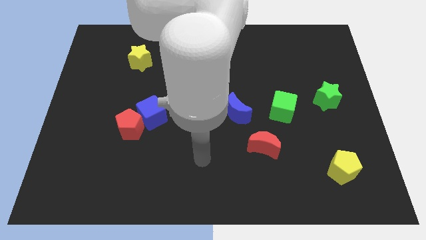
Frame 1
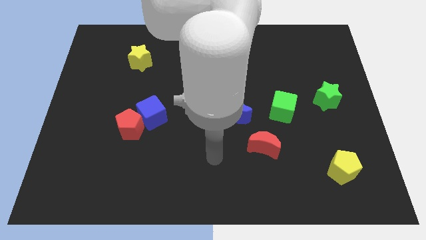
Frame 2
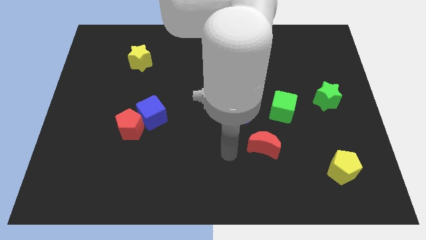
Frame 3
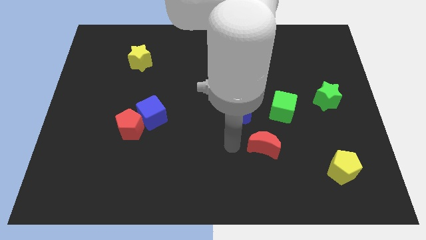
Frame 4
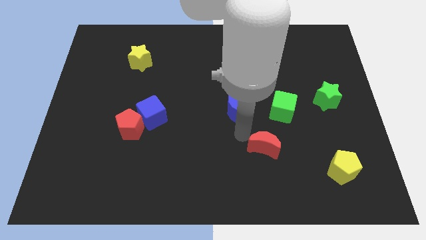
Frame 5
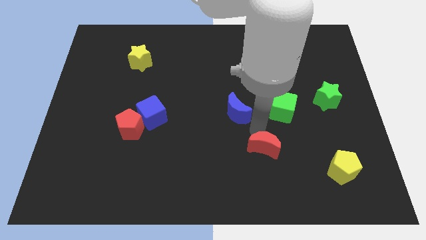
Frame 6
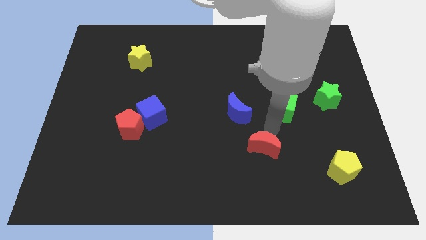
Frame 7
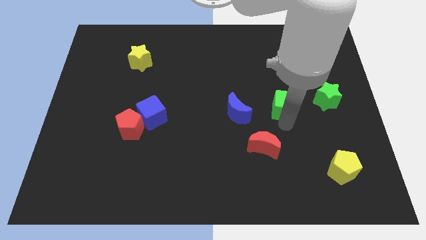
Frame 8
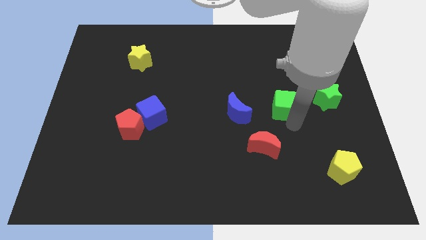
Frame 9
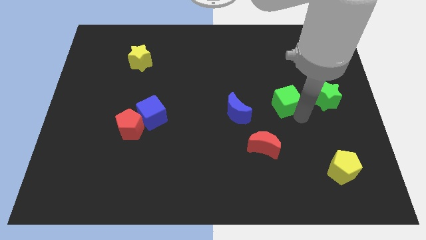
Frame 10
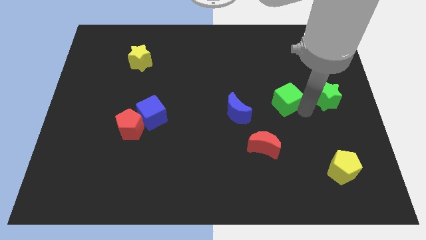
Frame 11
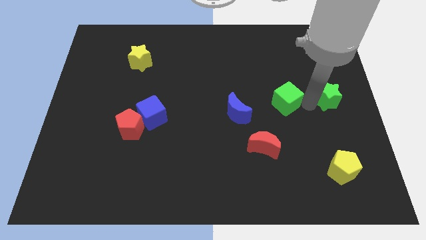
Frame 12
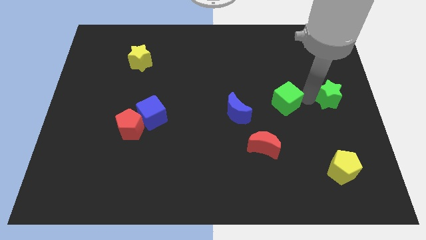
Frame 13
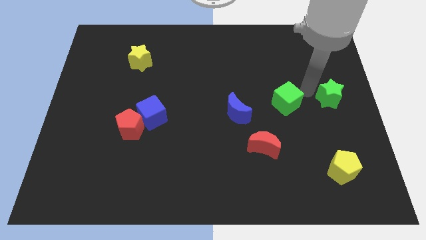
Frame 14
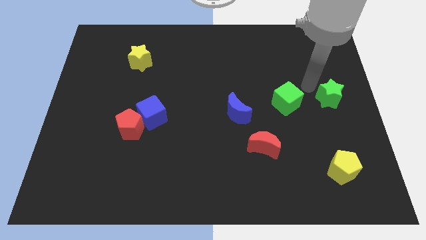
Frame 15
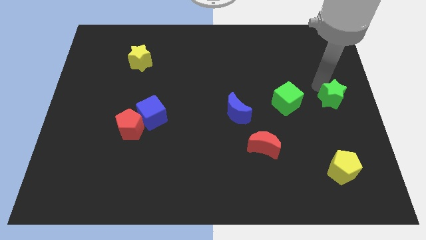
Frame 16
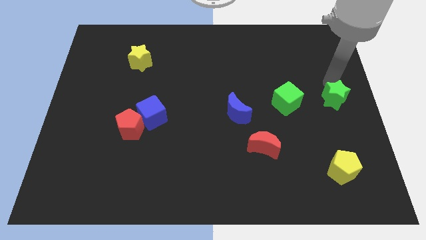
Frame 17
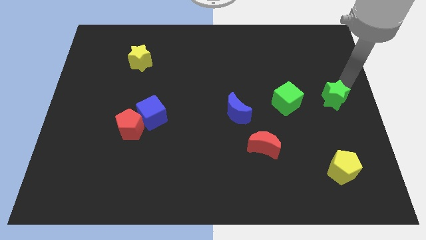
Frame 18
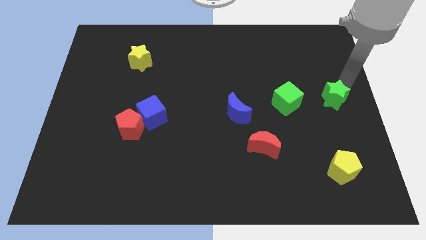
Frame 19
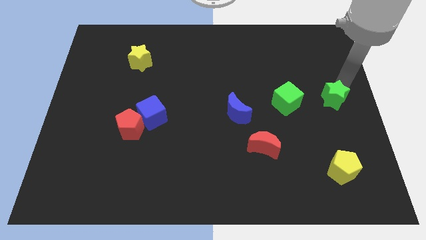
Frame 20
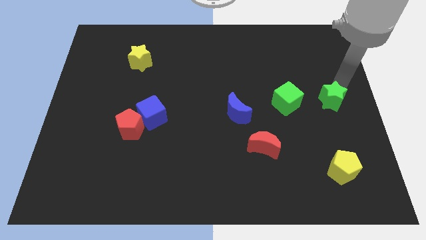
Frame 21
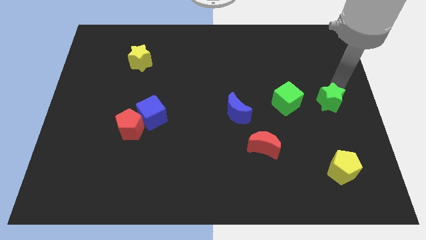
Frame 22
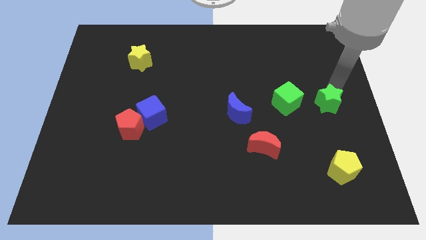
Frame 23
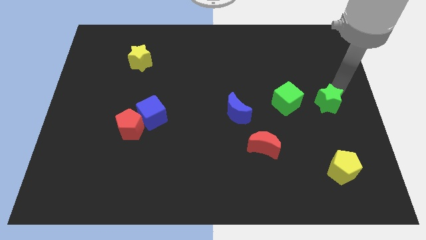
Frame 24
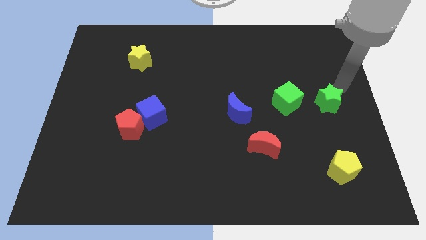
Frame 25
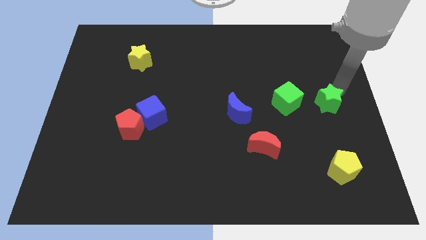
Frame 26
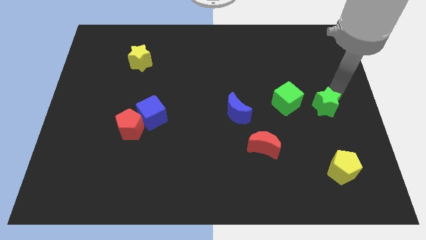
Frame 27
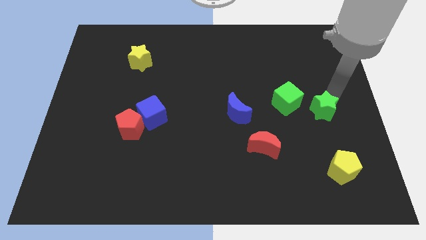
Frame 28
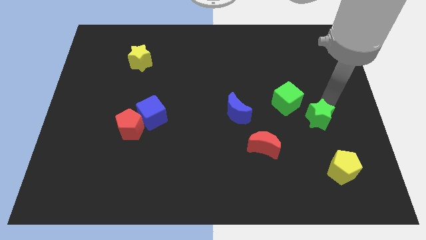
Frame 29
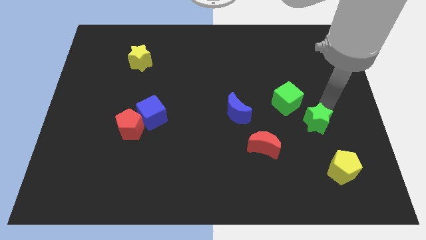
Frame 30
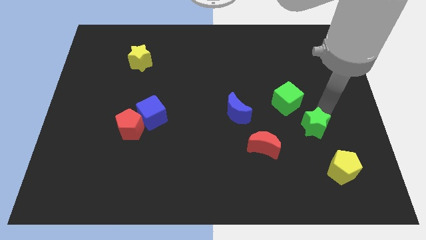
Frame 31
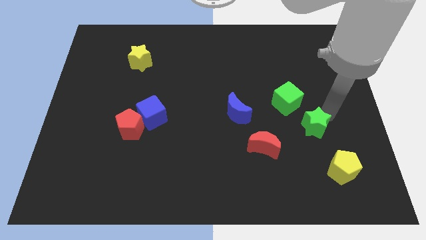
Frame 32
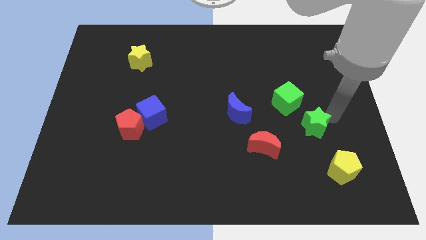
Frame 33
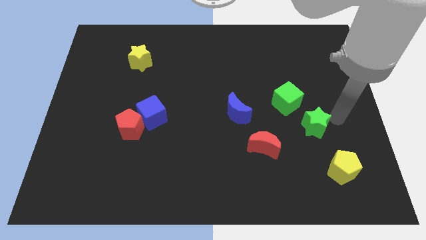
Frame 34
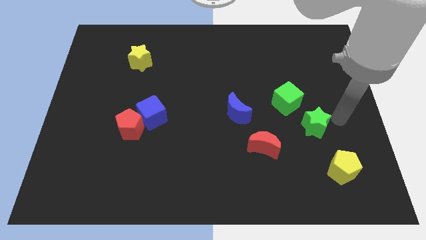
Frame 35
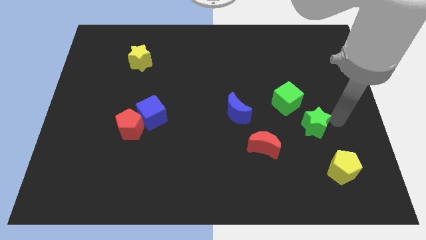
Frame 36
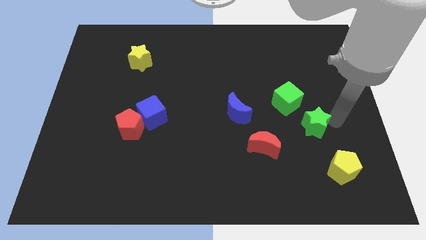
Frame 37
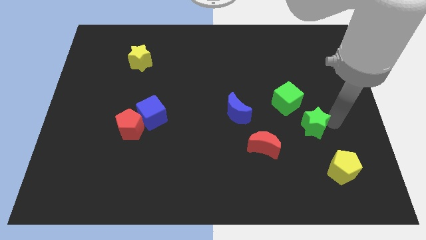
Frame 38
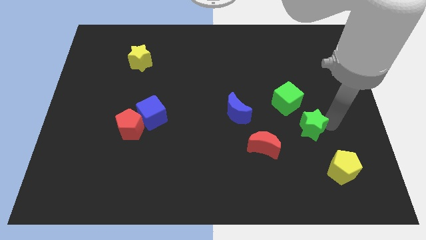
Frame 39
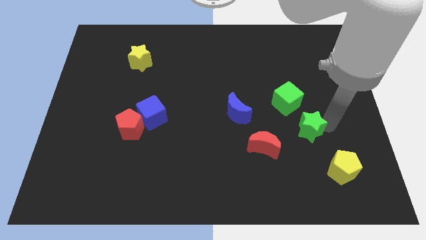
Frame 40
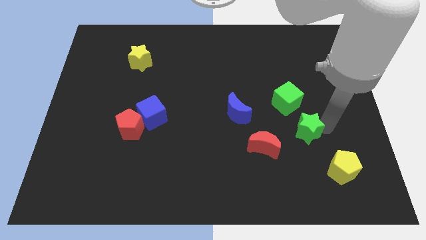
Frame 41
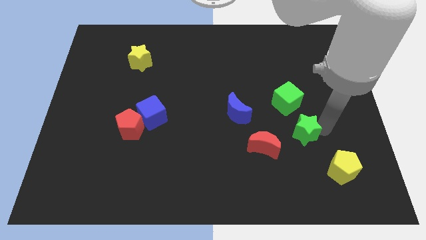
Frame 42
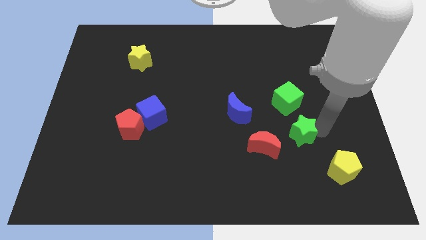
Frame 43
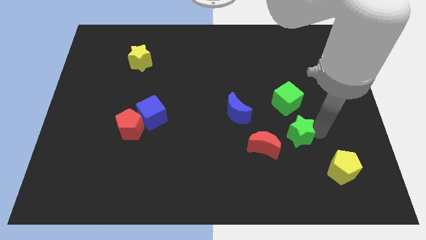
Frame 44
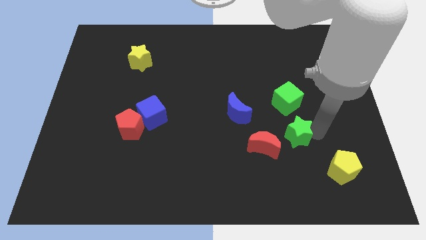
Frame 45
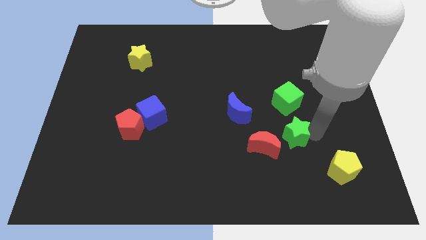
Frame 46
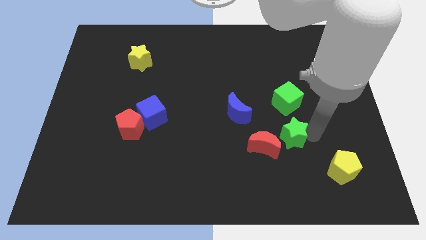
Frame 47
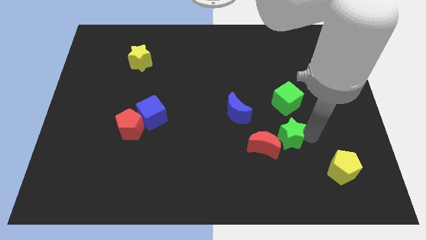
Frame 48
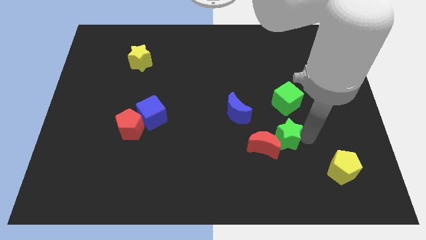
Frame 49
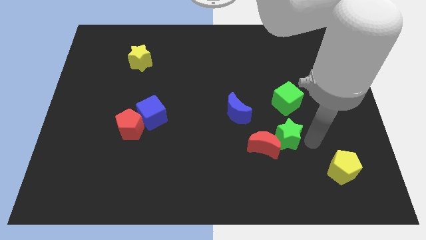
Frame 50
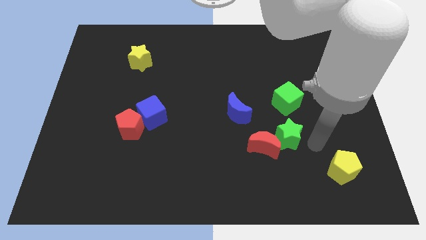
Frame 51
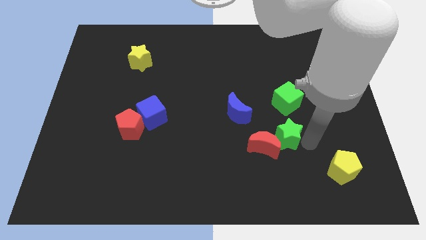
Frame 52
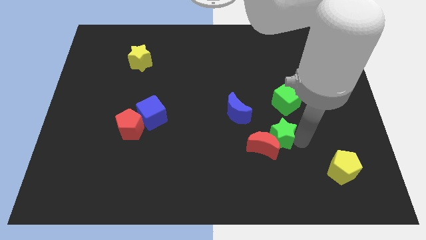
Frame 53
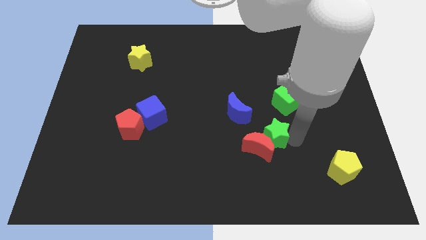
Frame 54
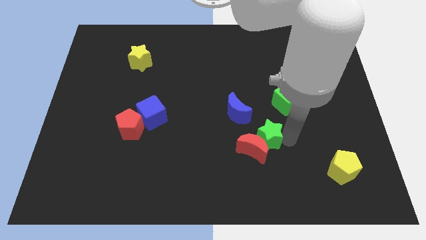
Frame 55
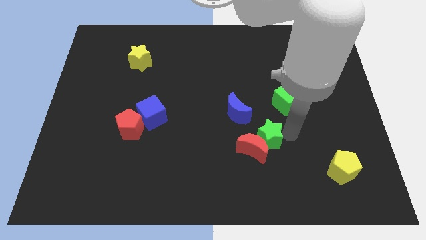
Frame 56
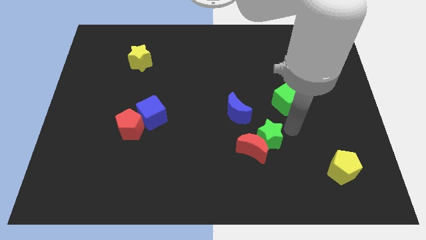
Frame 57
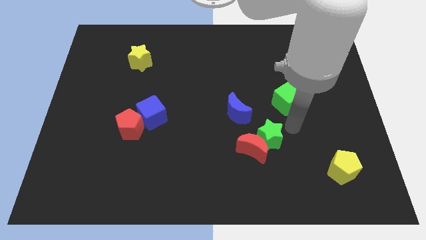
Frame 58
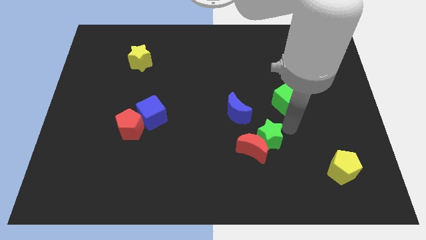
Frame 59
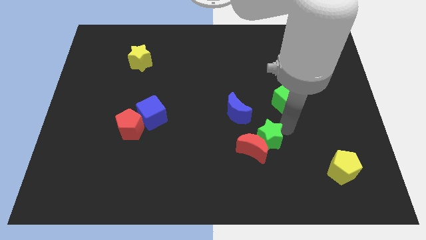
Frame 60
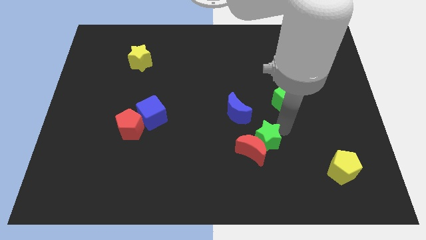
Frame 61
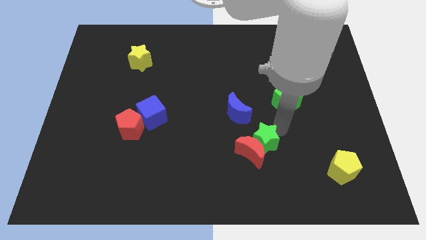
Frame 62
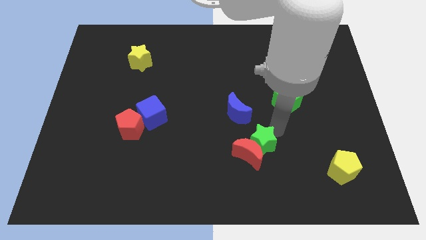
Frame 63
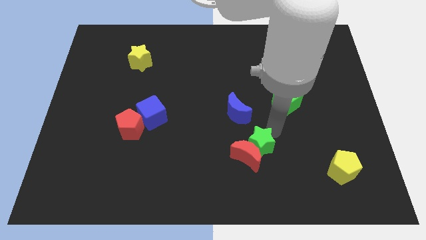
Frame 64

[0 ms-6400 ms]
move the green star below the blue moon

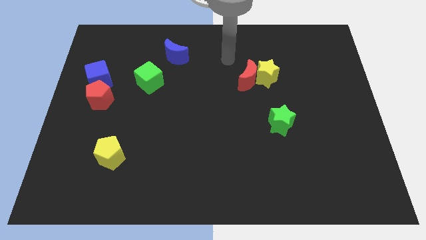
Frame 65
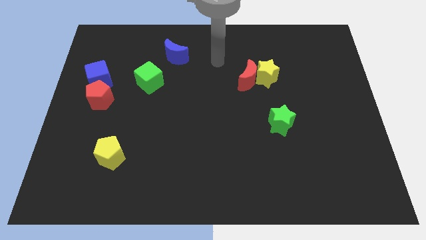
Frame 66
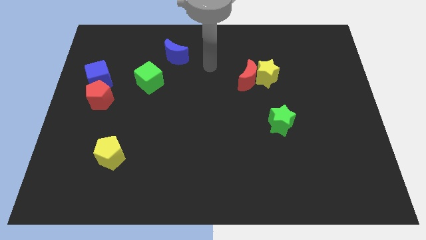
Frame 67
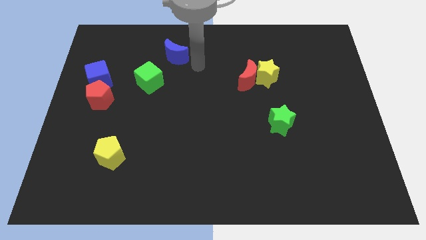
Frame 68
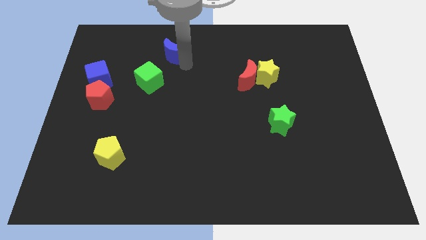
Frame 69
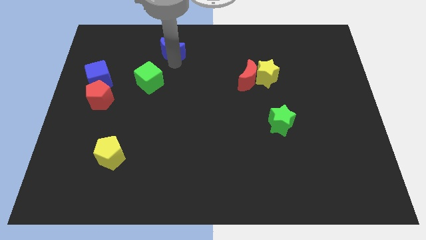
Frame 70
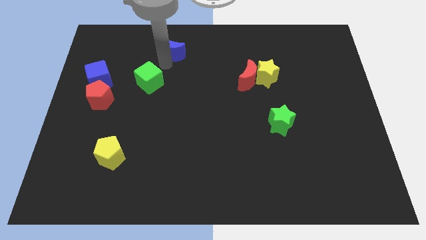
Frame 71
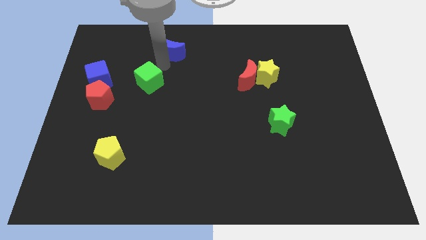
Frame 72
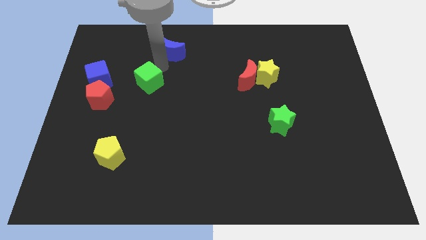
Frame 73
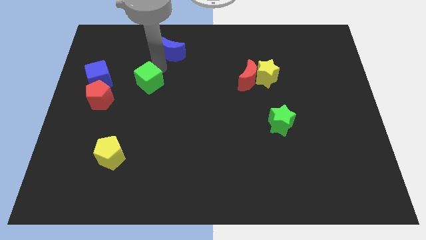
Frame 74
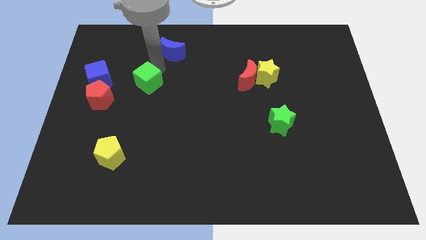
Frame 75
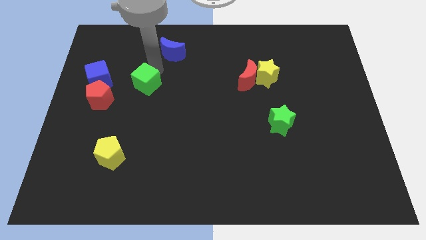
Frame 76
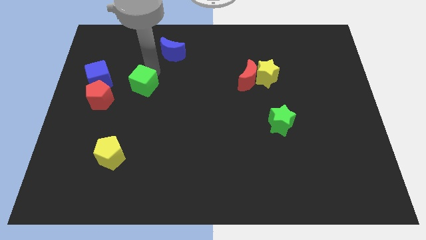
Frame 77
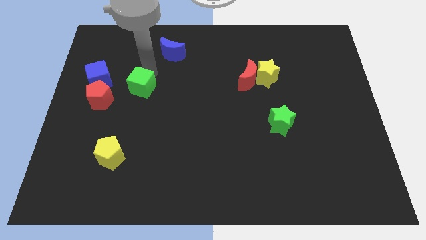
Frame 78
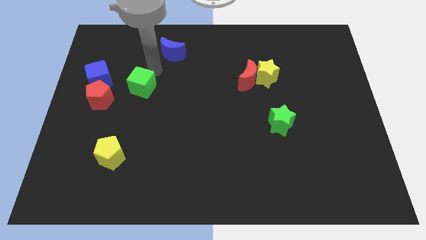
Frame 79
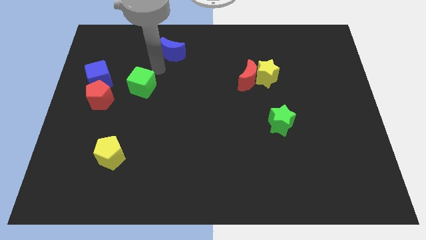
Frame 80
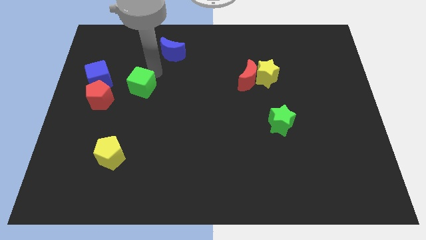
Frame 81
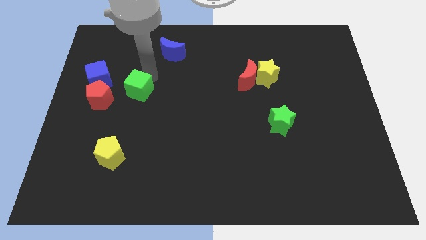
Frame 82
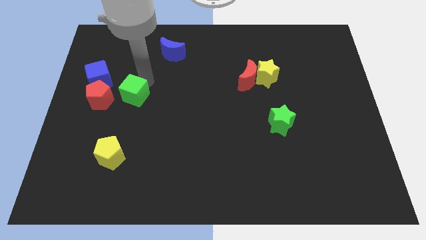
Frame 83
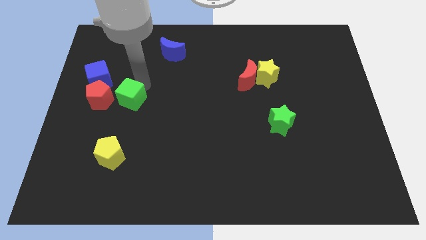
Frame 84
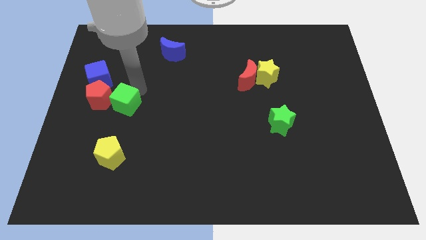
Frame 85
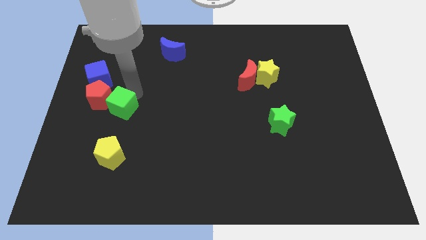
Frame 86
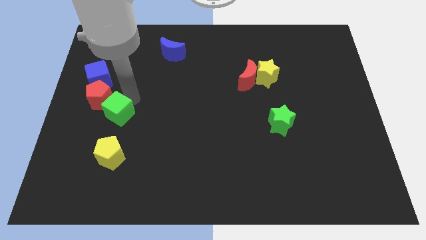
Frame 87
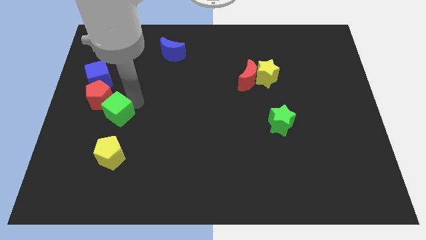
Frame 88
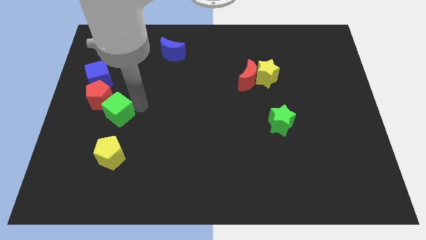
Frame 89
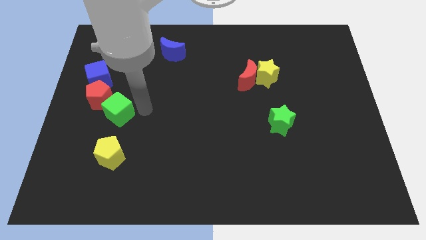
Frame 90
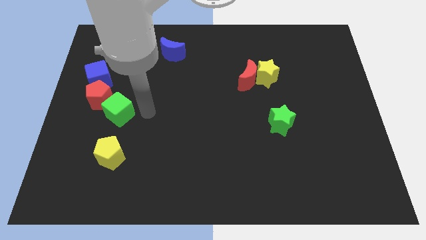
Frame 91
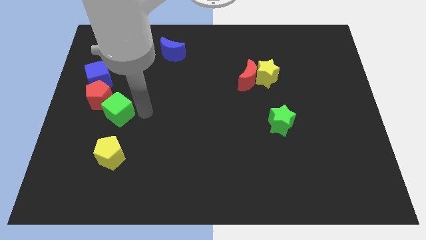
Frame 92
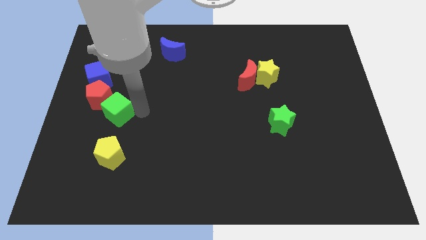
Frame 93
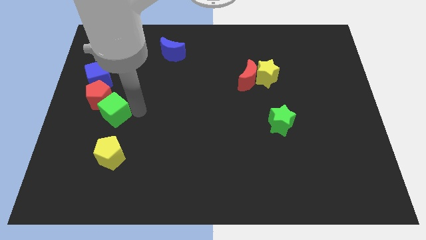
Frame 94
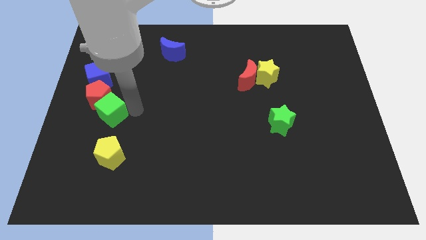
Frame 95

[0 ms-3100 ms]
slide the green cube to the bottom side of the blue cube
